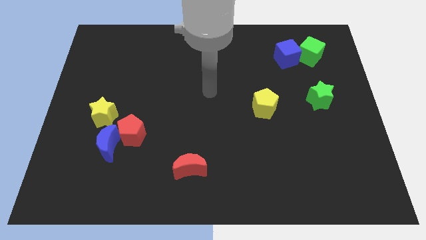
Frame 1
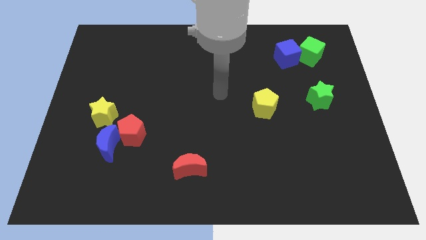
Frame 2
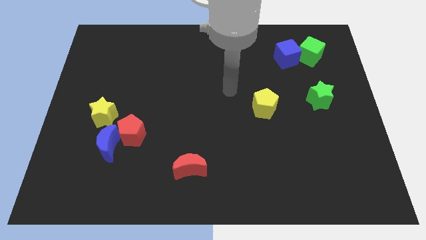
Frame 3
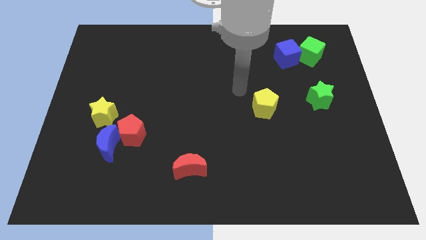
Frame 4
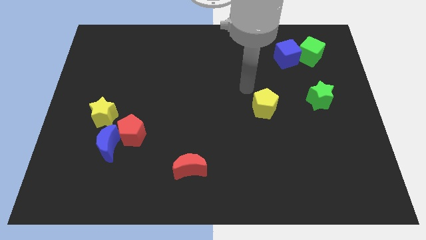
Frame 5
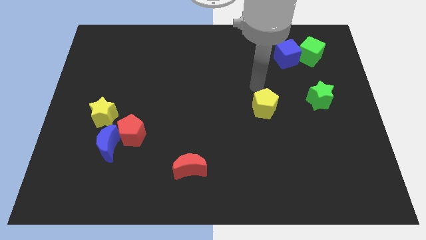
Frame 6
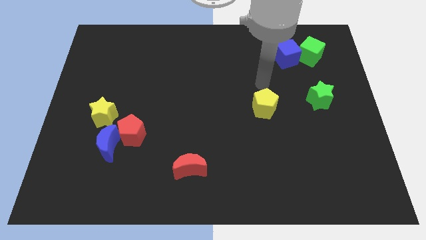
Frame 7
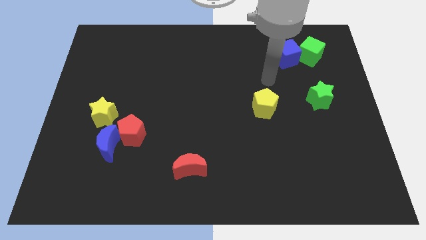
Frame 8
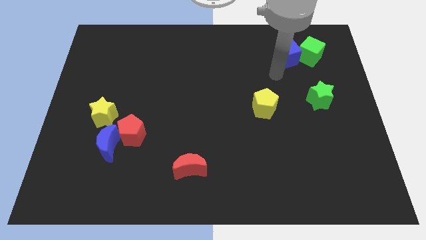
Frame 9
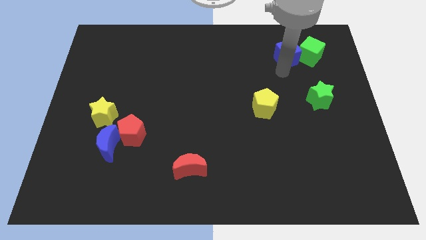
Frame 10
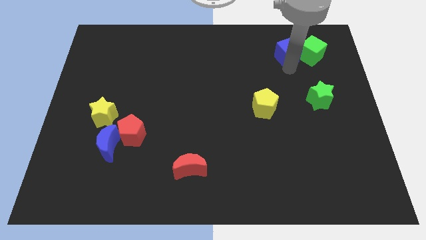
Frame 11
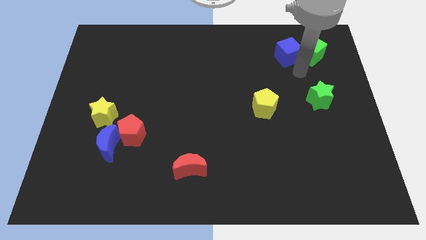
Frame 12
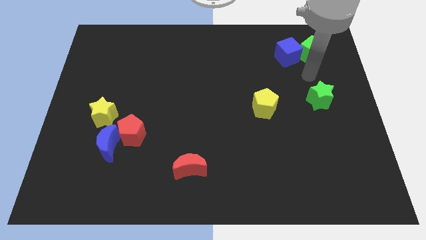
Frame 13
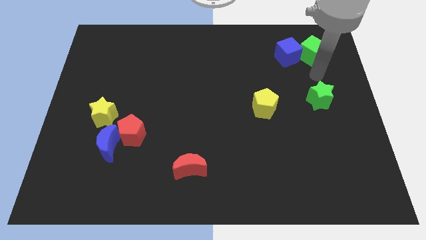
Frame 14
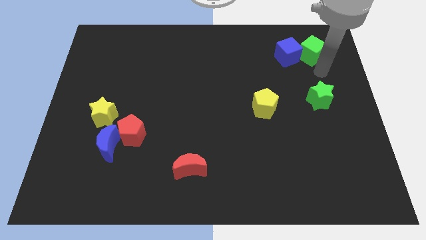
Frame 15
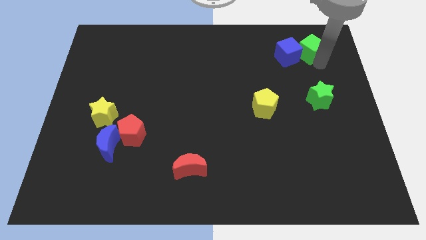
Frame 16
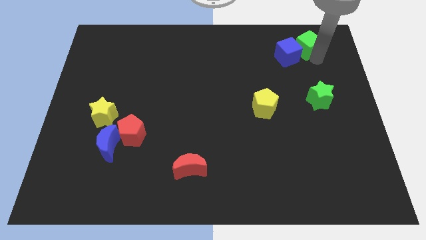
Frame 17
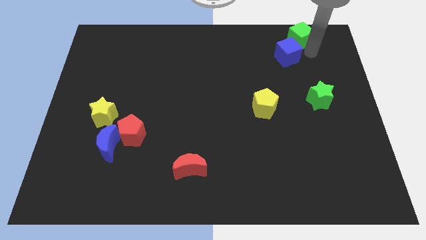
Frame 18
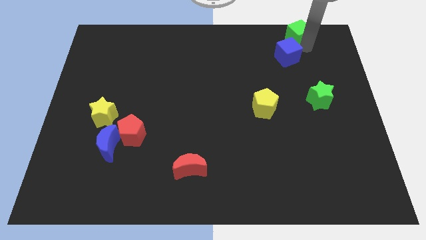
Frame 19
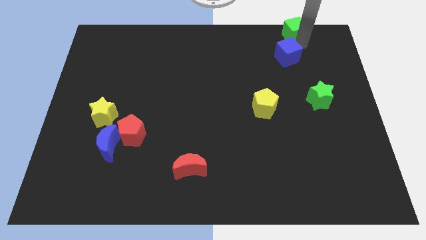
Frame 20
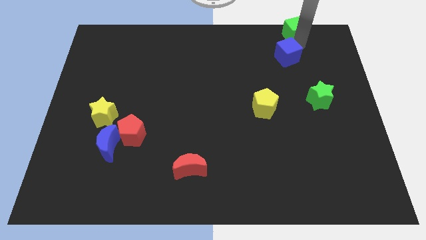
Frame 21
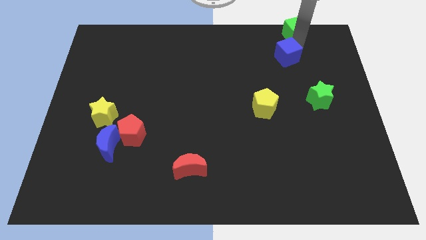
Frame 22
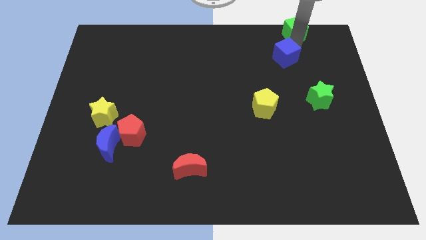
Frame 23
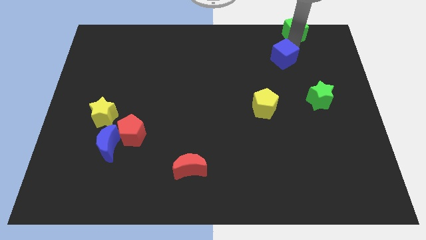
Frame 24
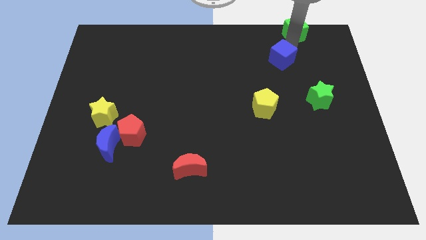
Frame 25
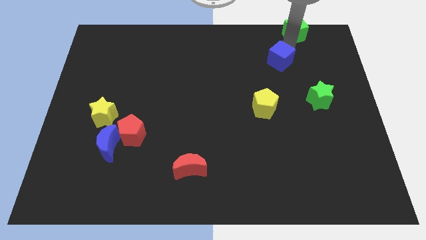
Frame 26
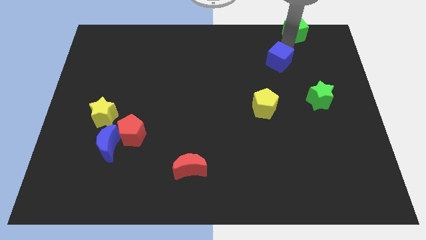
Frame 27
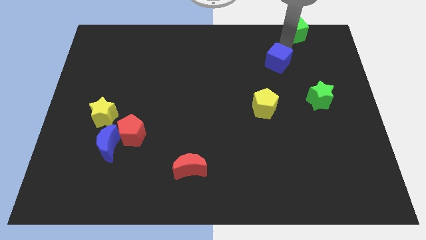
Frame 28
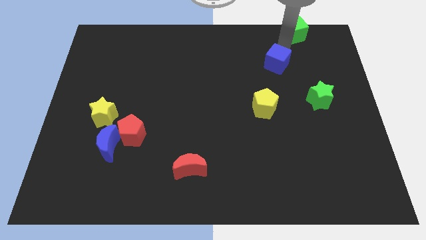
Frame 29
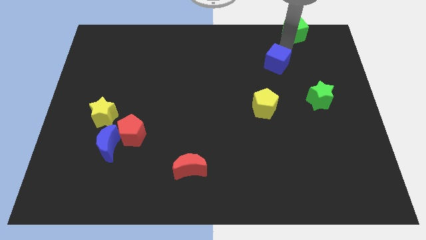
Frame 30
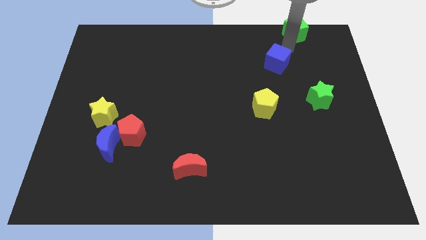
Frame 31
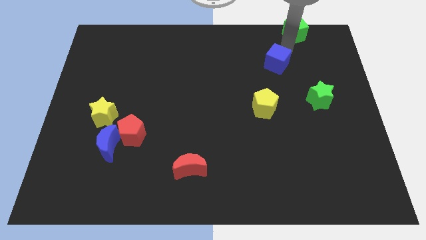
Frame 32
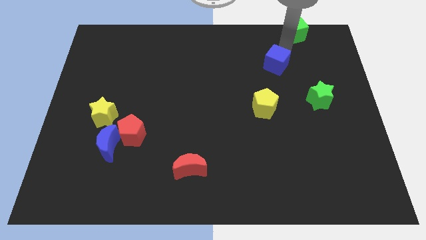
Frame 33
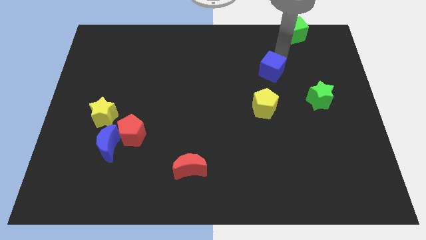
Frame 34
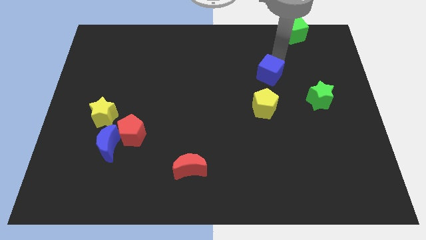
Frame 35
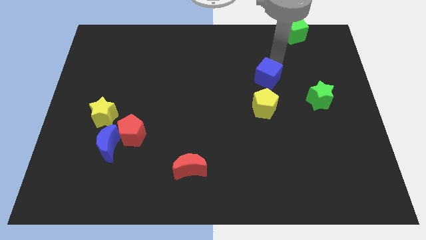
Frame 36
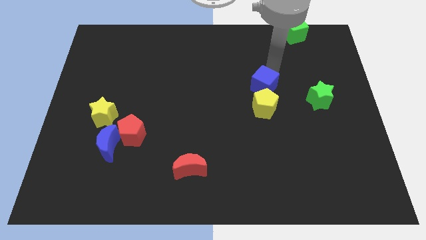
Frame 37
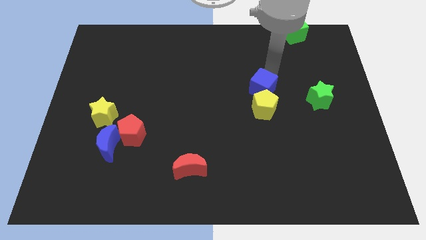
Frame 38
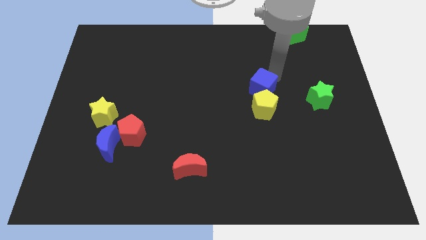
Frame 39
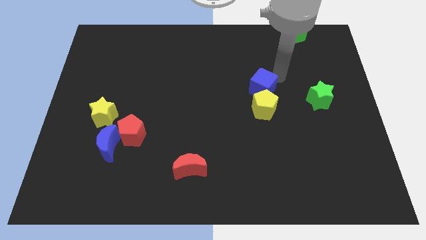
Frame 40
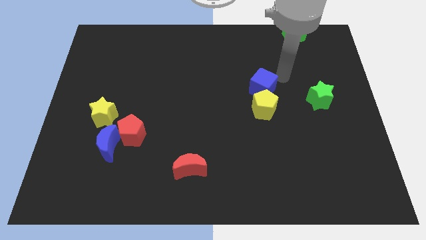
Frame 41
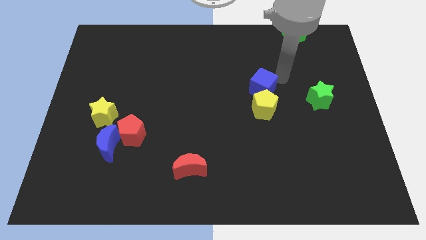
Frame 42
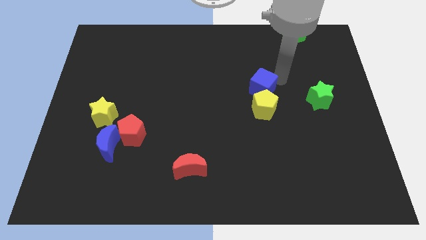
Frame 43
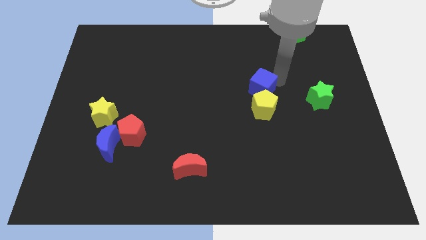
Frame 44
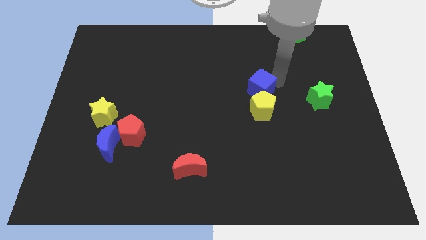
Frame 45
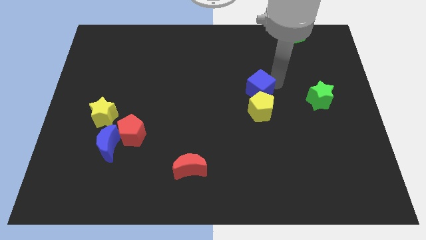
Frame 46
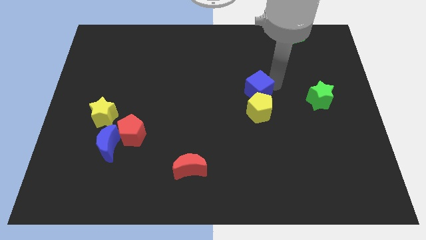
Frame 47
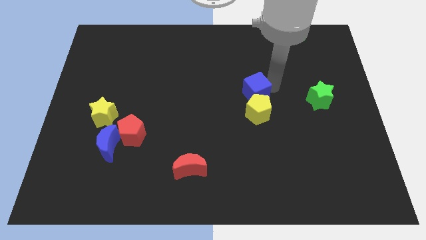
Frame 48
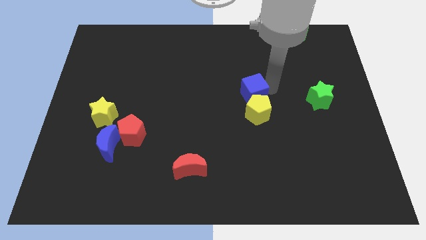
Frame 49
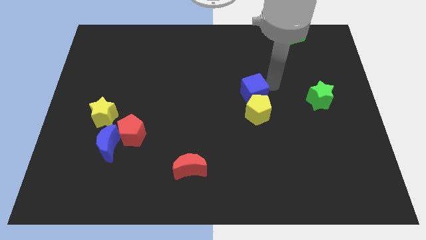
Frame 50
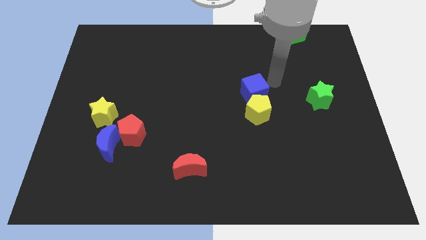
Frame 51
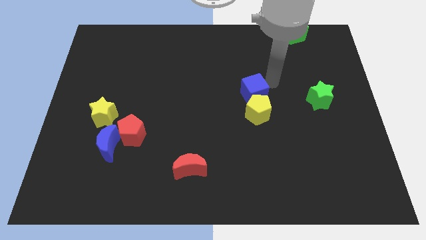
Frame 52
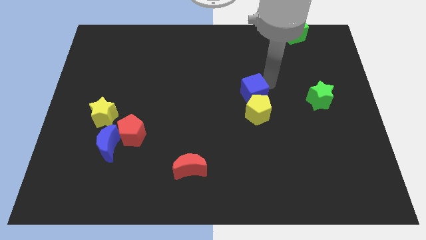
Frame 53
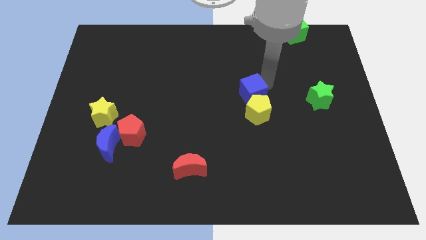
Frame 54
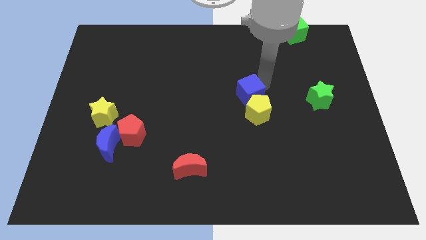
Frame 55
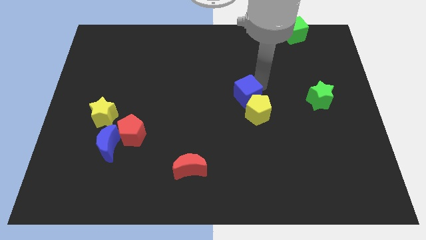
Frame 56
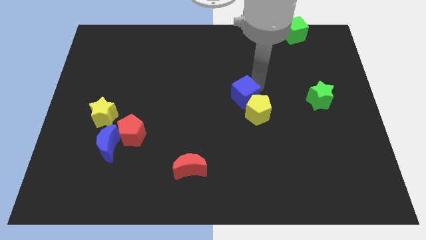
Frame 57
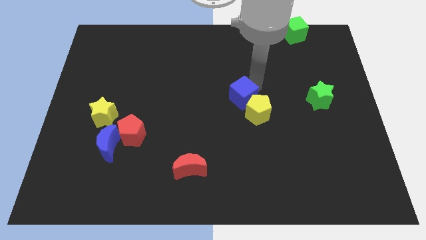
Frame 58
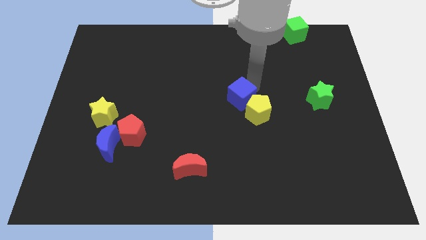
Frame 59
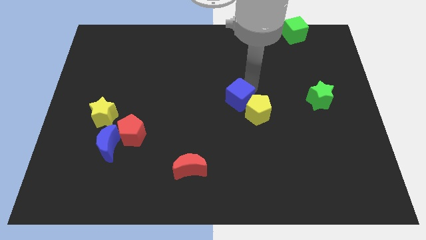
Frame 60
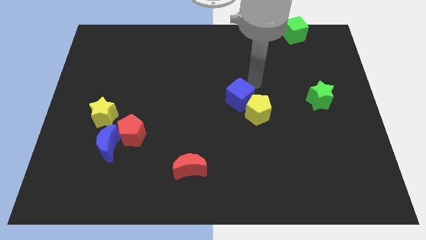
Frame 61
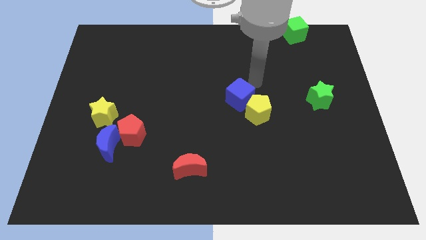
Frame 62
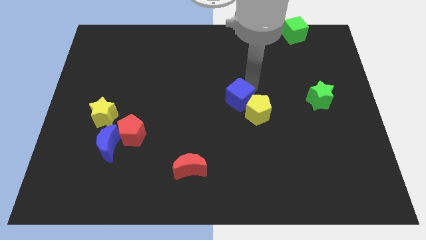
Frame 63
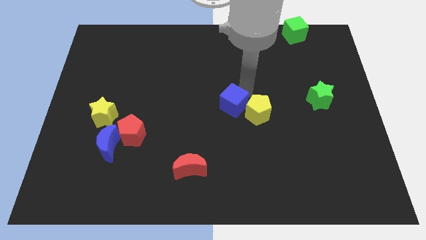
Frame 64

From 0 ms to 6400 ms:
slide the blue cube diagonally downwards and left

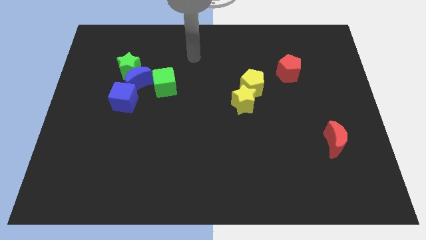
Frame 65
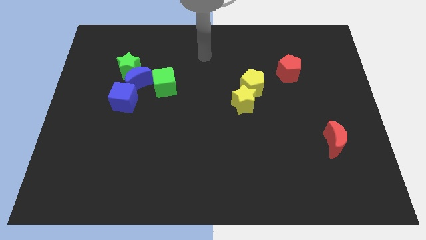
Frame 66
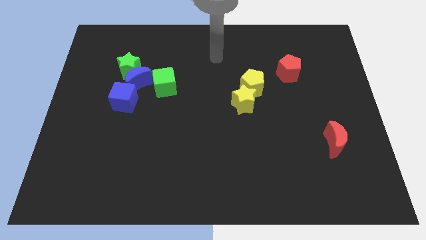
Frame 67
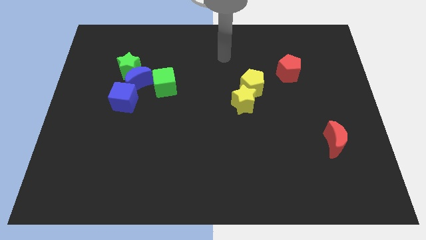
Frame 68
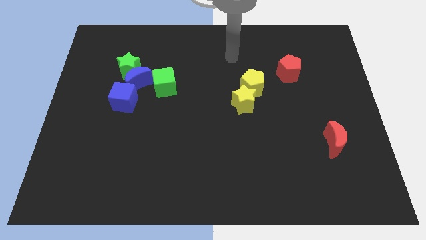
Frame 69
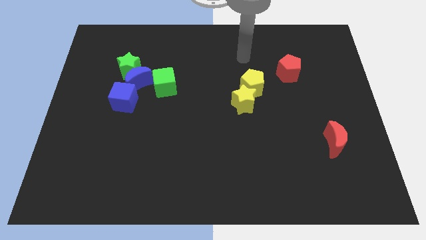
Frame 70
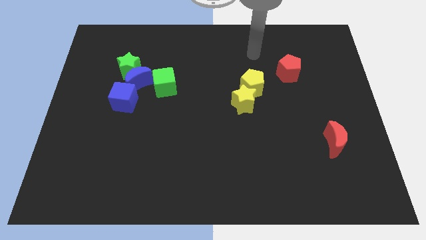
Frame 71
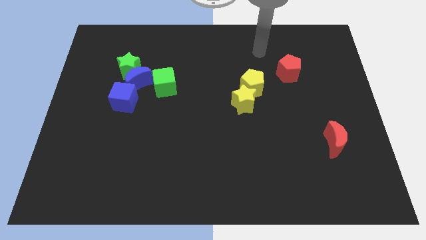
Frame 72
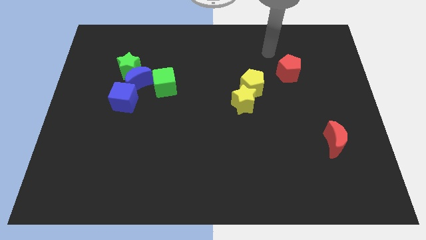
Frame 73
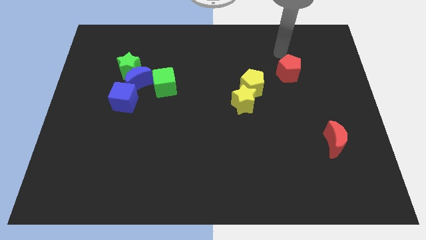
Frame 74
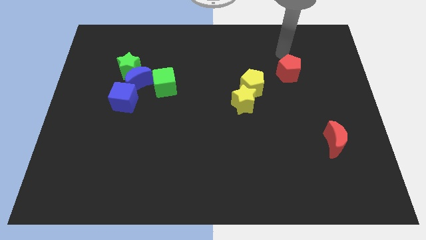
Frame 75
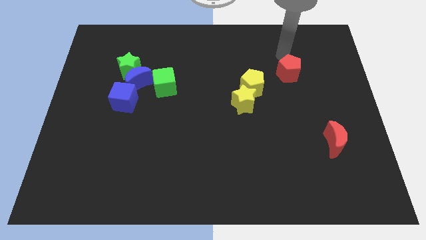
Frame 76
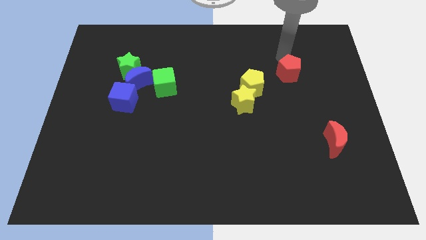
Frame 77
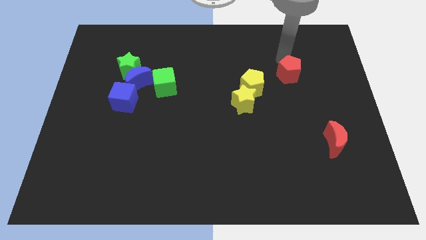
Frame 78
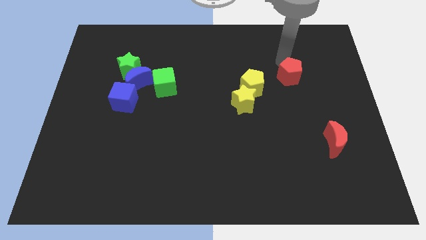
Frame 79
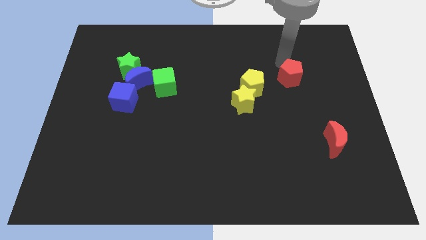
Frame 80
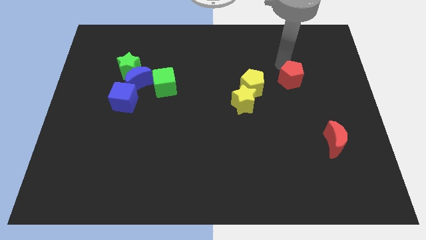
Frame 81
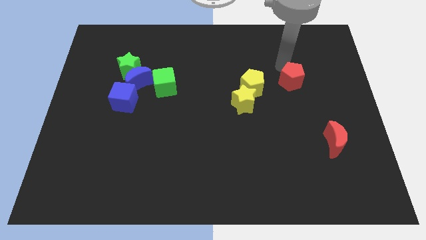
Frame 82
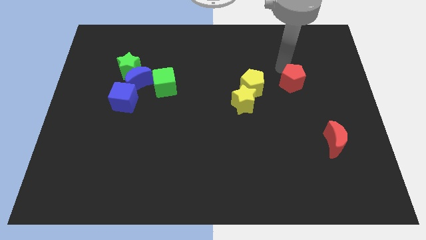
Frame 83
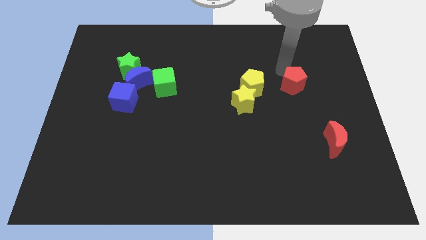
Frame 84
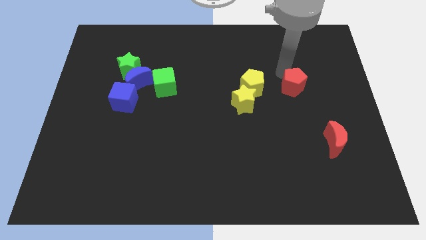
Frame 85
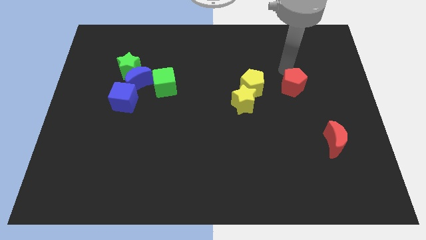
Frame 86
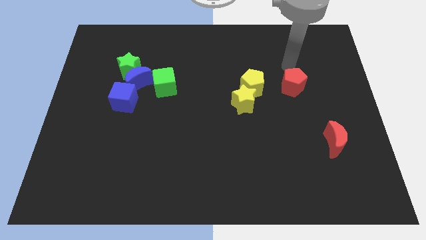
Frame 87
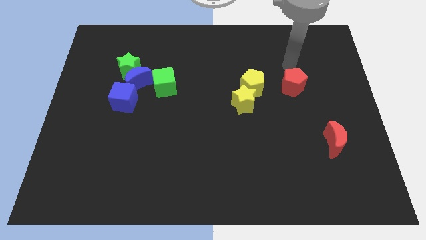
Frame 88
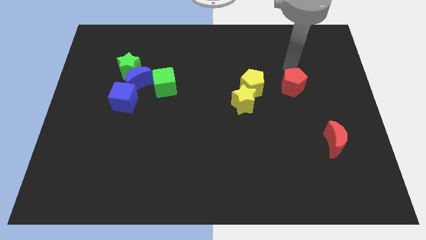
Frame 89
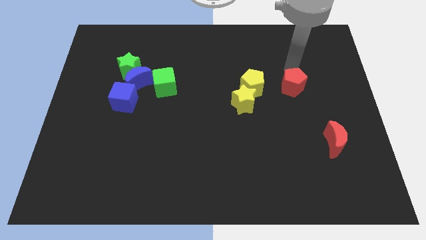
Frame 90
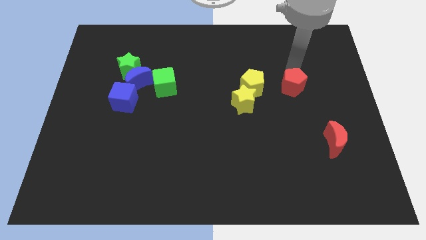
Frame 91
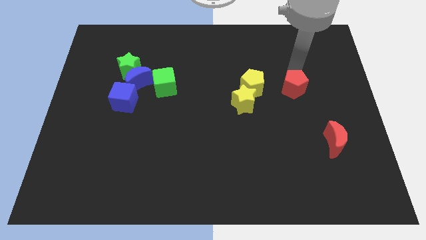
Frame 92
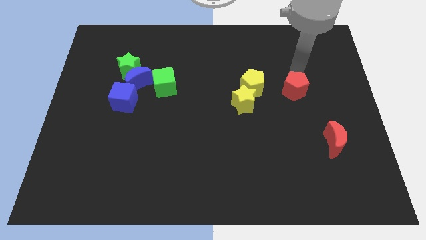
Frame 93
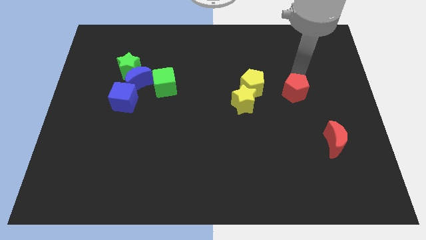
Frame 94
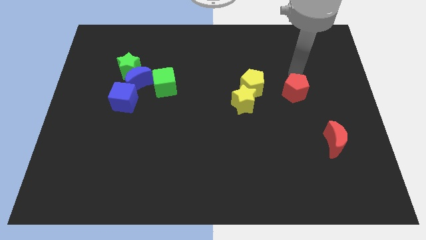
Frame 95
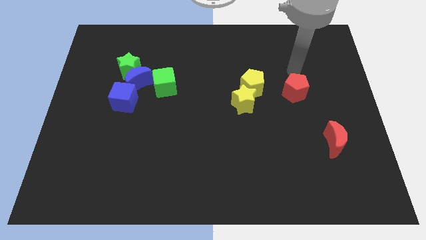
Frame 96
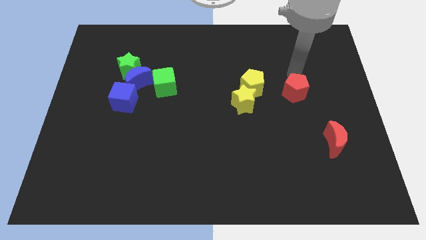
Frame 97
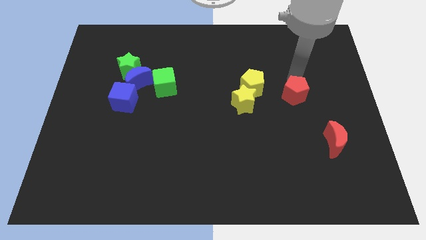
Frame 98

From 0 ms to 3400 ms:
move the red pentagon downwards slightly
